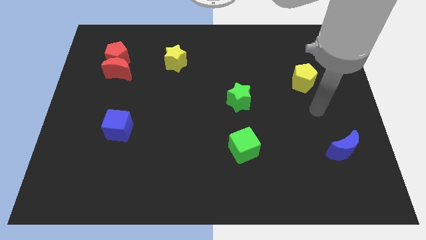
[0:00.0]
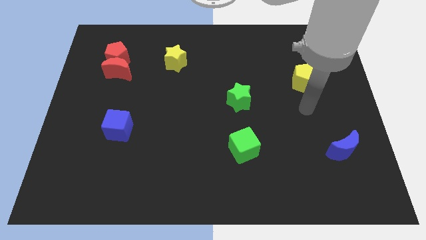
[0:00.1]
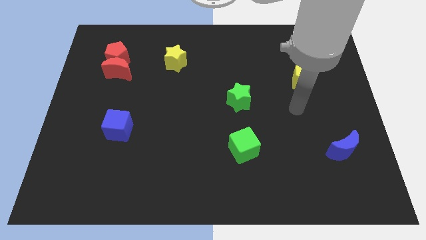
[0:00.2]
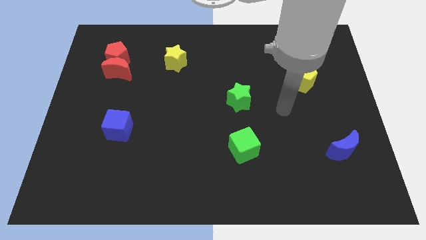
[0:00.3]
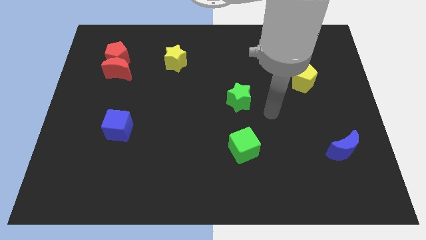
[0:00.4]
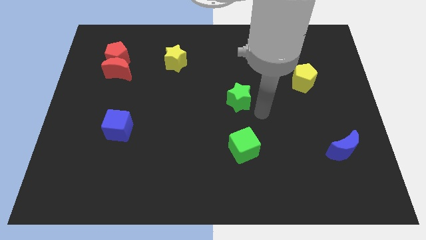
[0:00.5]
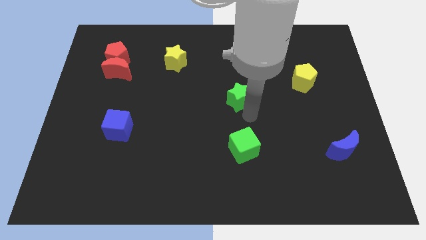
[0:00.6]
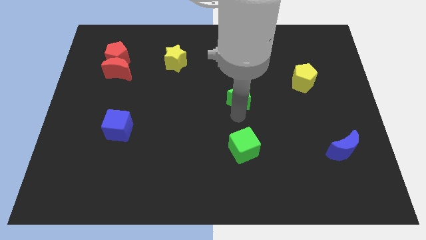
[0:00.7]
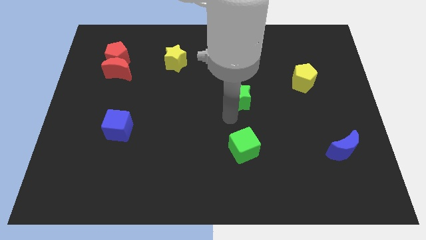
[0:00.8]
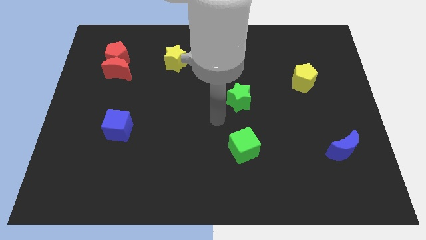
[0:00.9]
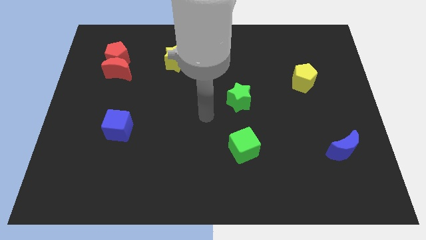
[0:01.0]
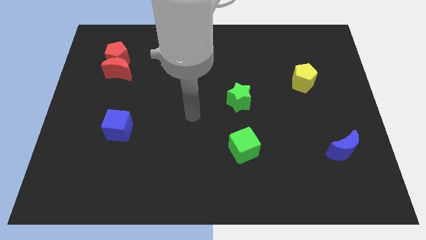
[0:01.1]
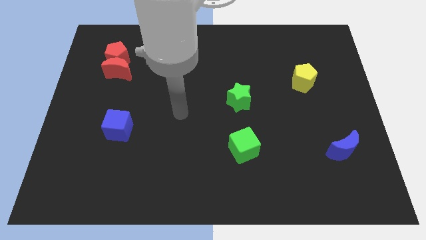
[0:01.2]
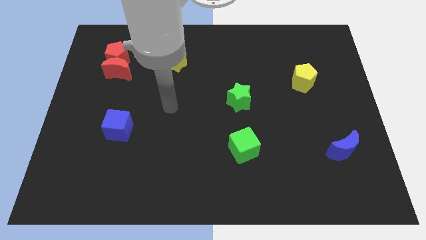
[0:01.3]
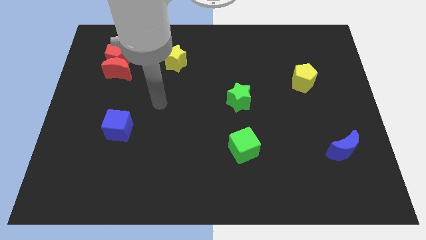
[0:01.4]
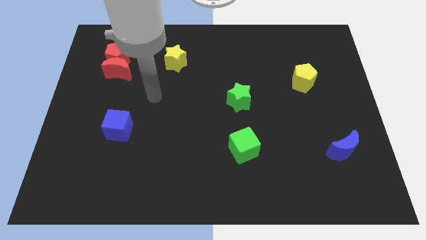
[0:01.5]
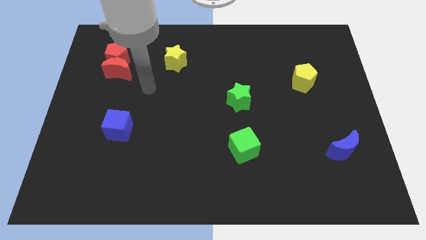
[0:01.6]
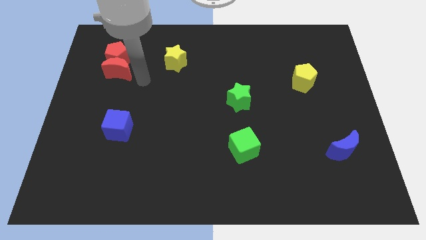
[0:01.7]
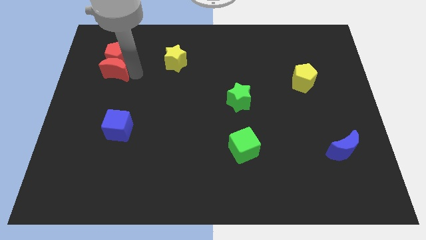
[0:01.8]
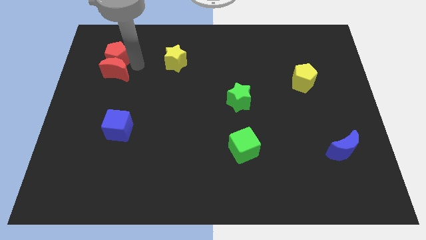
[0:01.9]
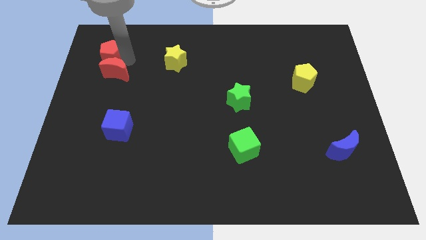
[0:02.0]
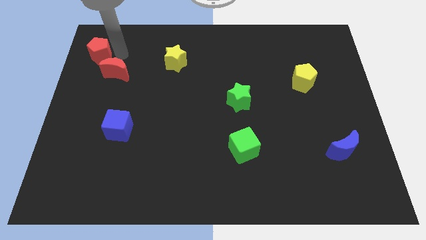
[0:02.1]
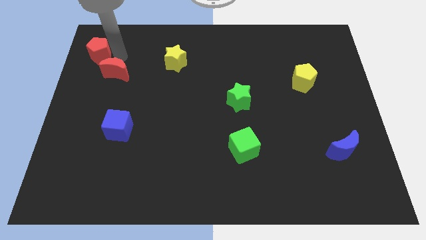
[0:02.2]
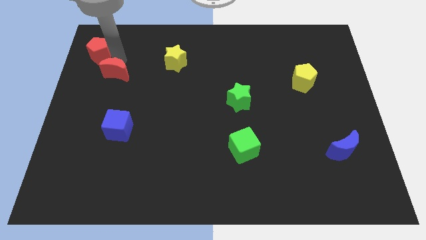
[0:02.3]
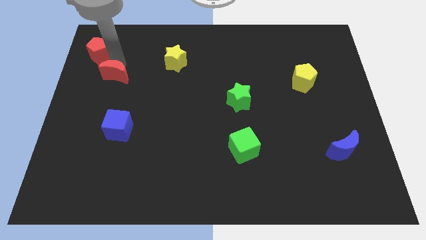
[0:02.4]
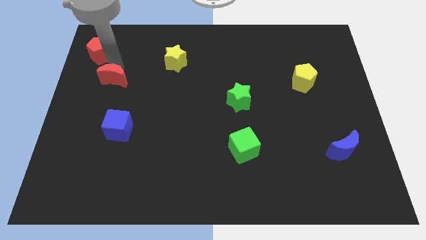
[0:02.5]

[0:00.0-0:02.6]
move the red moon away from the red pentagon

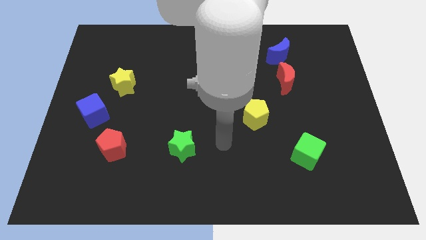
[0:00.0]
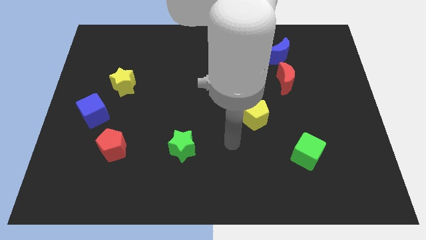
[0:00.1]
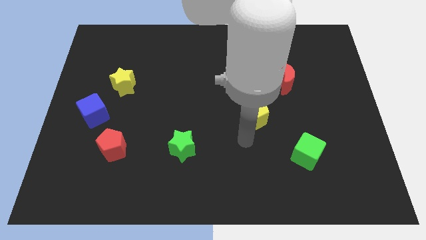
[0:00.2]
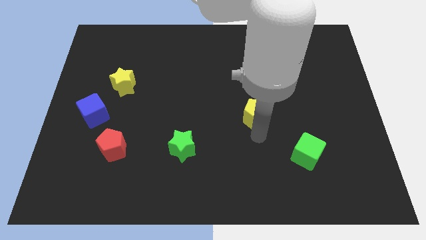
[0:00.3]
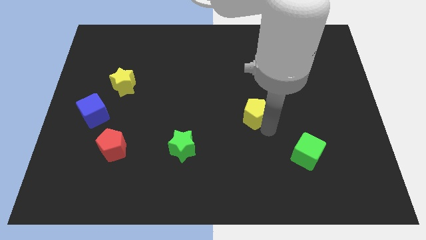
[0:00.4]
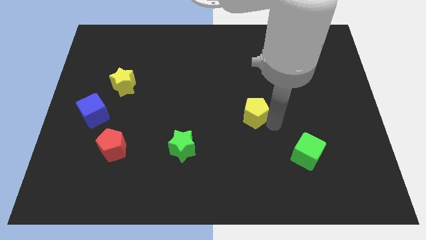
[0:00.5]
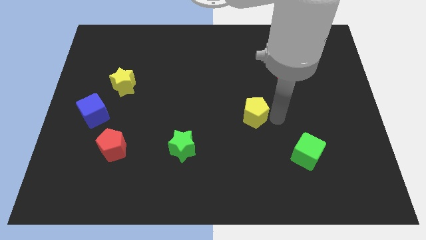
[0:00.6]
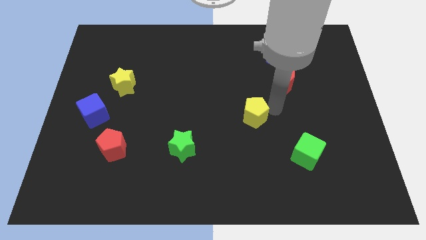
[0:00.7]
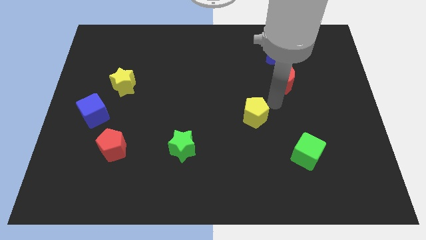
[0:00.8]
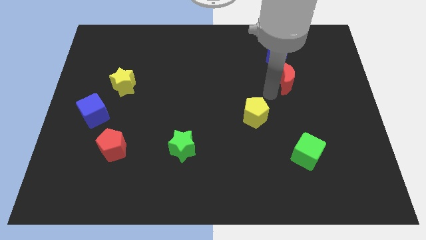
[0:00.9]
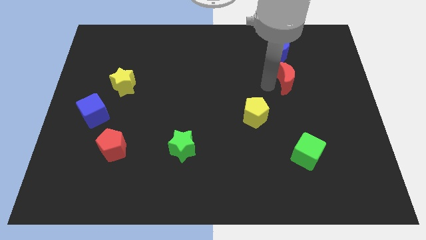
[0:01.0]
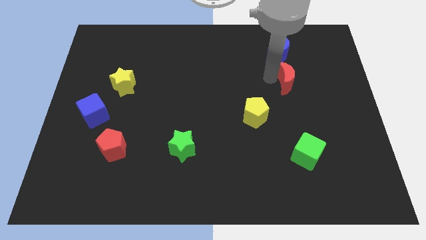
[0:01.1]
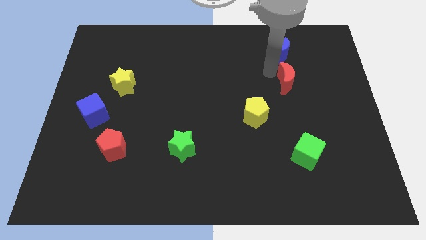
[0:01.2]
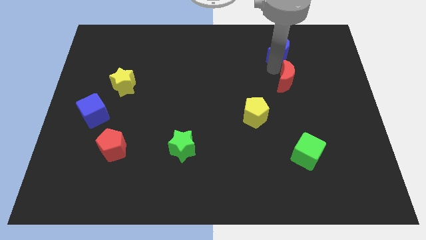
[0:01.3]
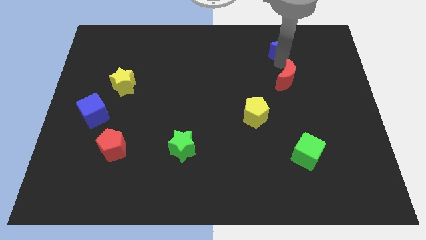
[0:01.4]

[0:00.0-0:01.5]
pull the red moon apart from the blue moon

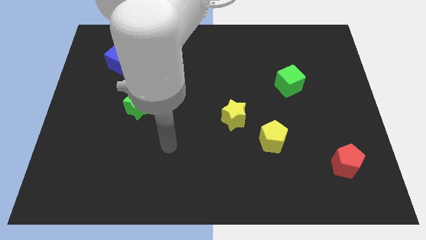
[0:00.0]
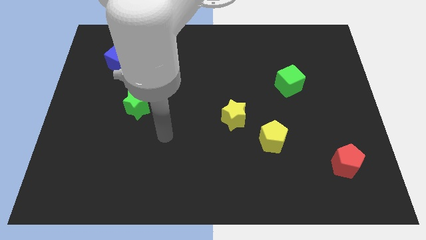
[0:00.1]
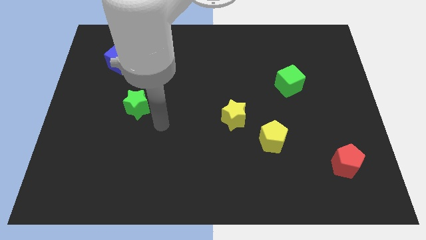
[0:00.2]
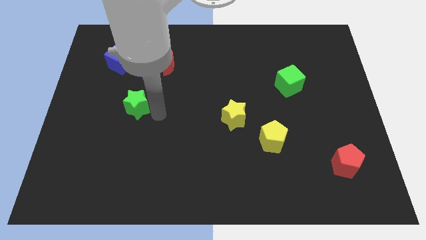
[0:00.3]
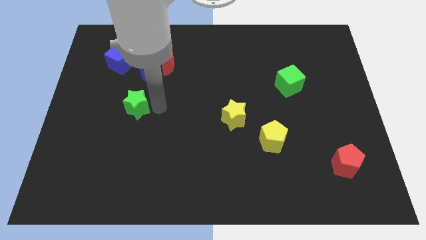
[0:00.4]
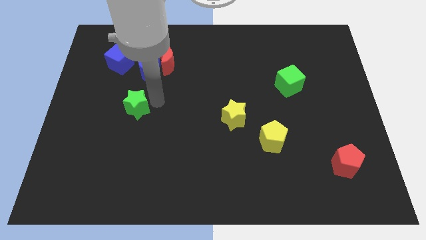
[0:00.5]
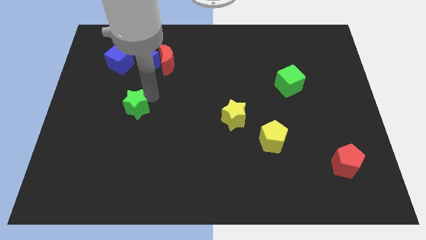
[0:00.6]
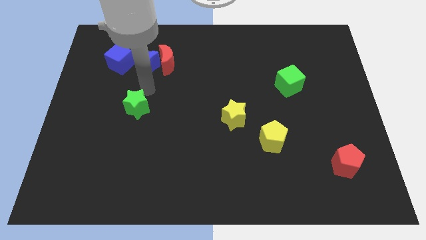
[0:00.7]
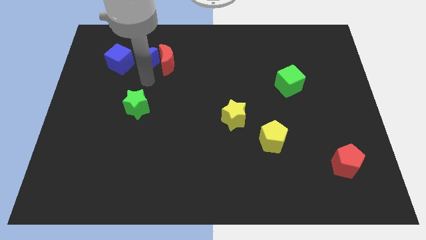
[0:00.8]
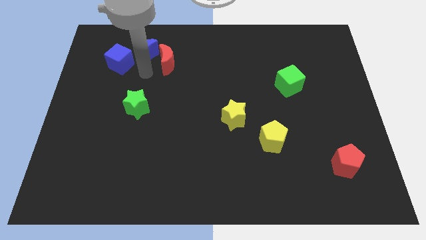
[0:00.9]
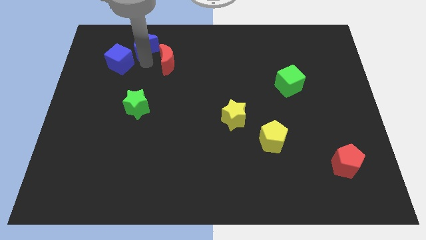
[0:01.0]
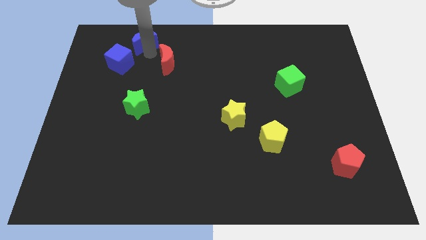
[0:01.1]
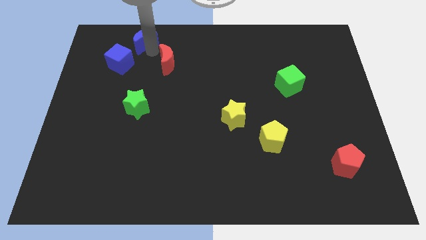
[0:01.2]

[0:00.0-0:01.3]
separate the red moon from the blue moon

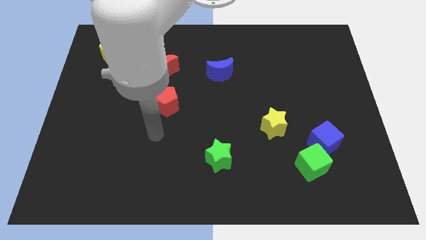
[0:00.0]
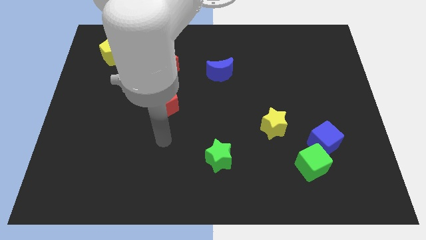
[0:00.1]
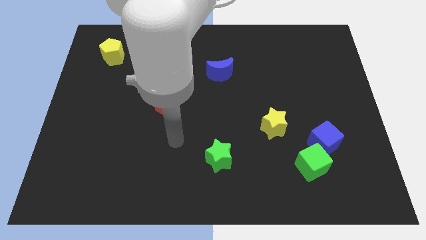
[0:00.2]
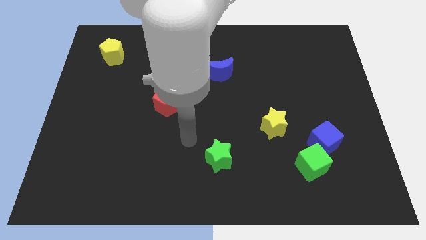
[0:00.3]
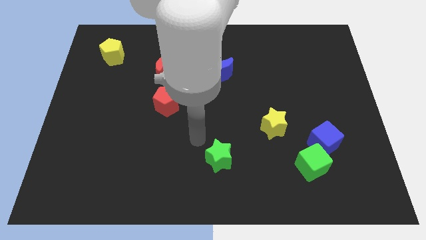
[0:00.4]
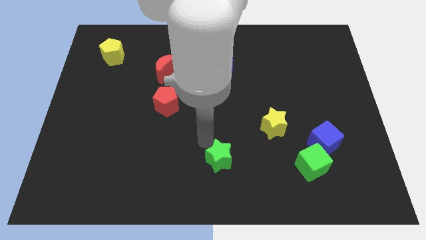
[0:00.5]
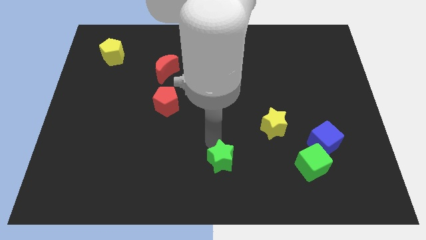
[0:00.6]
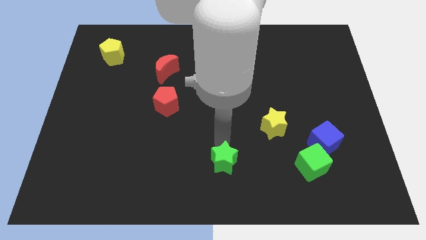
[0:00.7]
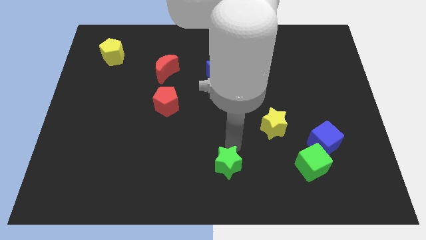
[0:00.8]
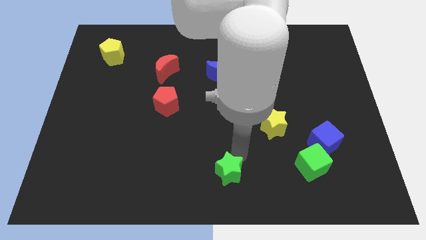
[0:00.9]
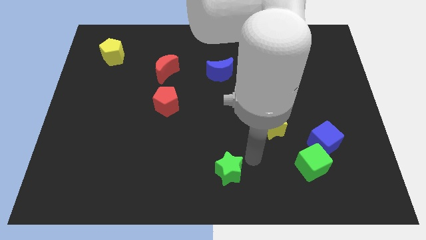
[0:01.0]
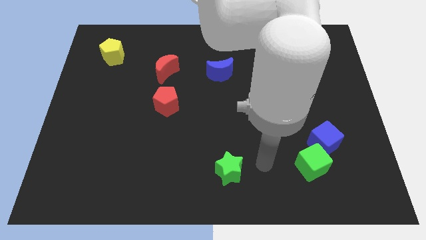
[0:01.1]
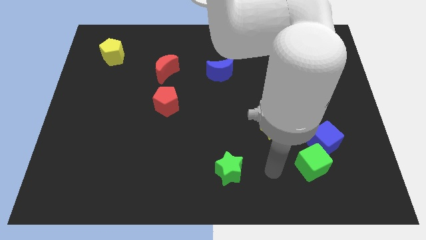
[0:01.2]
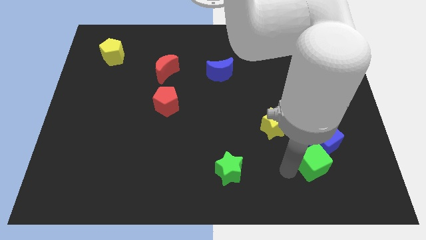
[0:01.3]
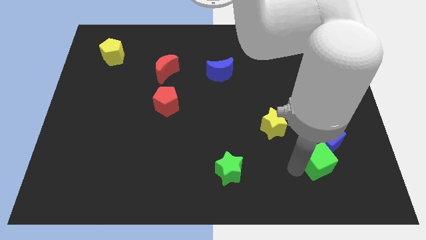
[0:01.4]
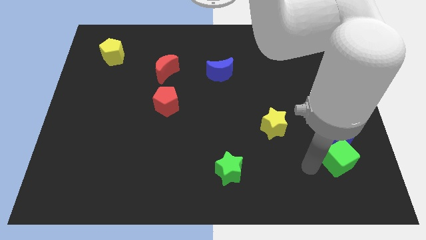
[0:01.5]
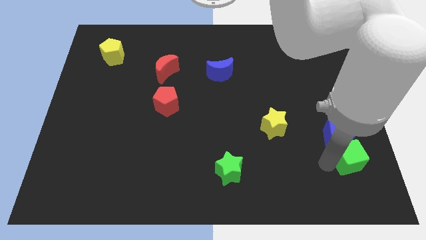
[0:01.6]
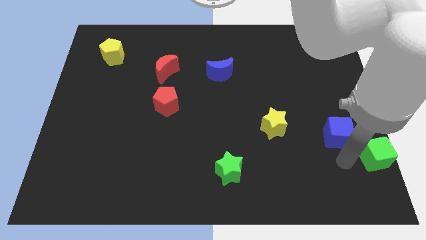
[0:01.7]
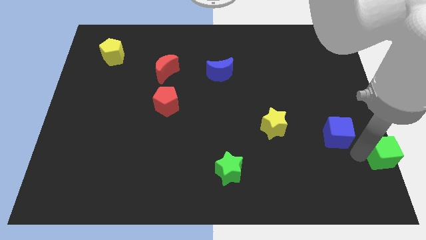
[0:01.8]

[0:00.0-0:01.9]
separate the blue cube from the green cube

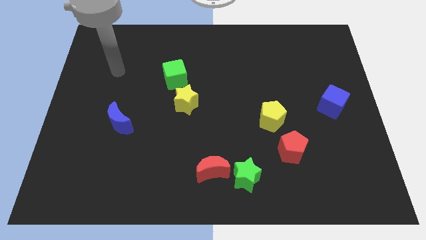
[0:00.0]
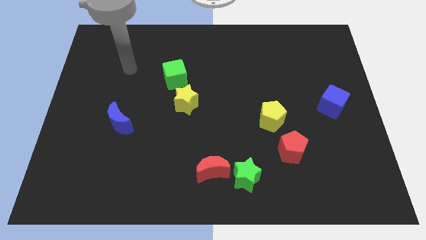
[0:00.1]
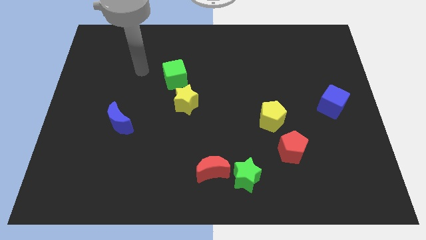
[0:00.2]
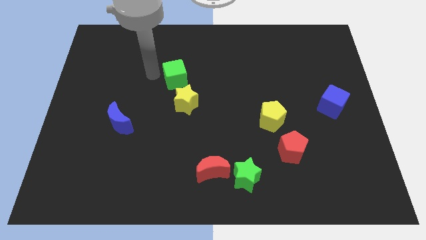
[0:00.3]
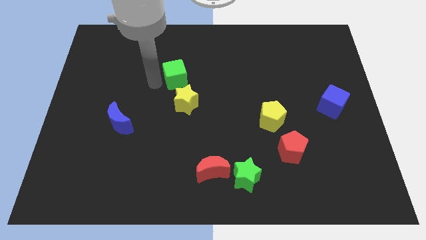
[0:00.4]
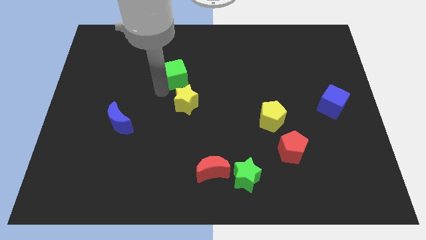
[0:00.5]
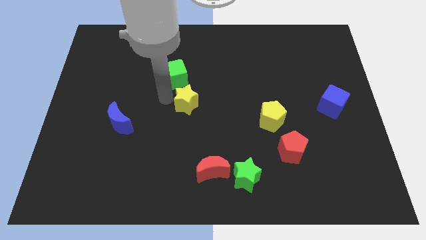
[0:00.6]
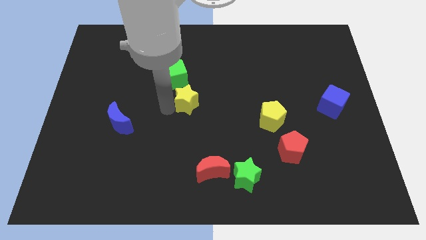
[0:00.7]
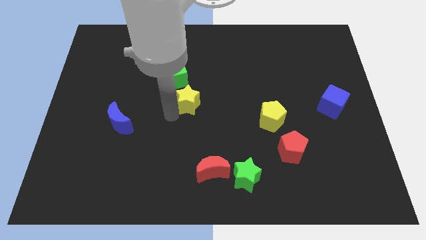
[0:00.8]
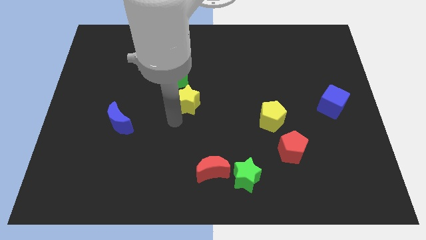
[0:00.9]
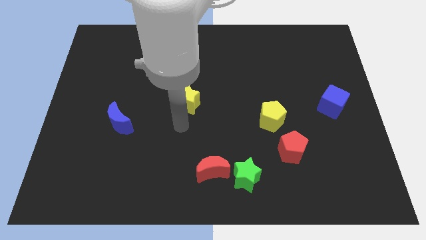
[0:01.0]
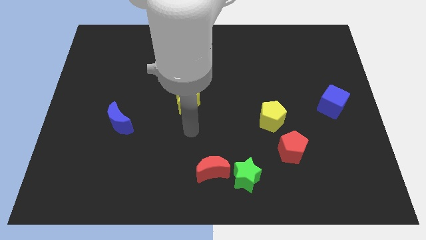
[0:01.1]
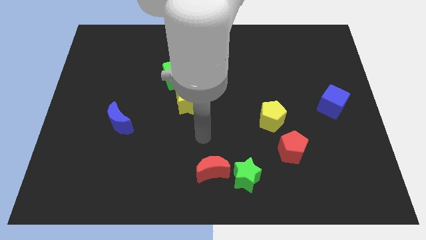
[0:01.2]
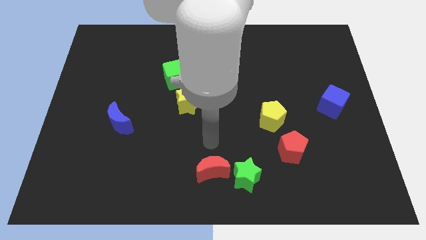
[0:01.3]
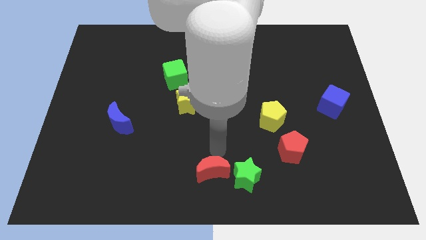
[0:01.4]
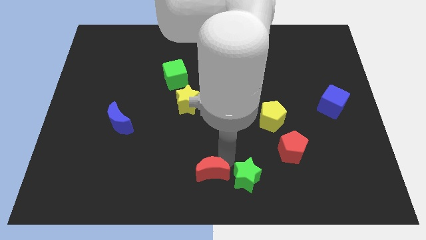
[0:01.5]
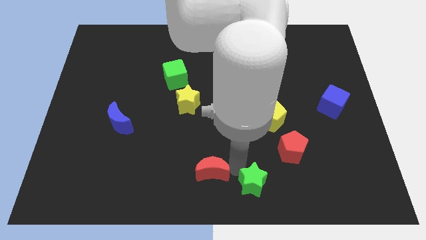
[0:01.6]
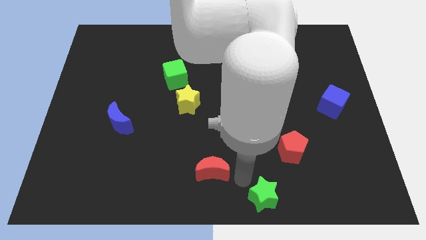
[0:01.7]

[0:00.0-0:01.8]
separate the red moon from the green star

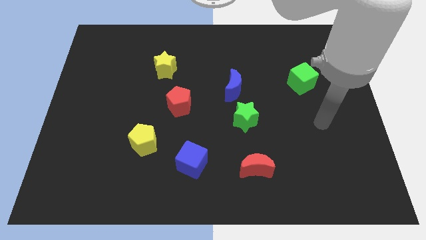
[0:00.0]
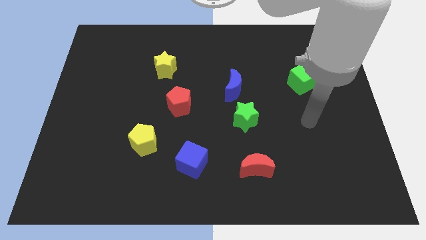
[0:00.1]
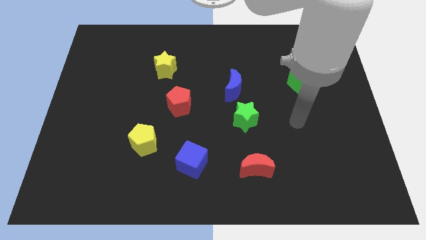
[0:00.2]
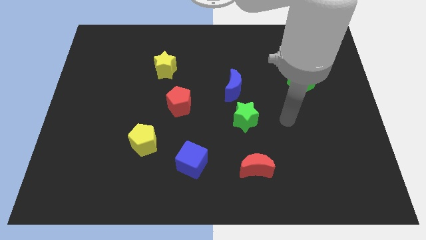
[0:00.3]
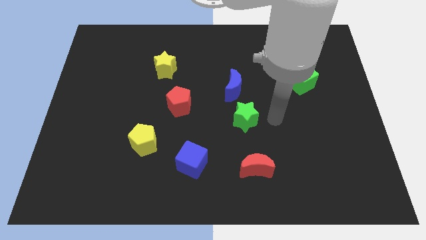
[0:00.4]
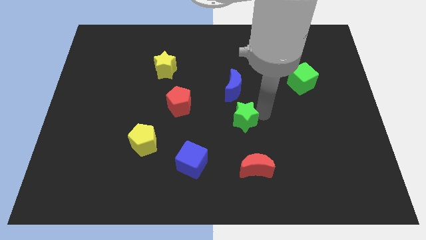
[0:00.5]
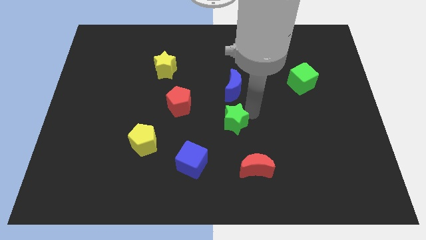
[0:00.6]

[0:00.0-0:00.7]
separate the blue moon from the green star
